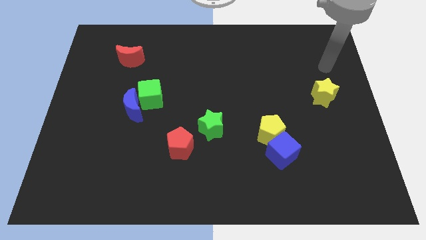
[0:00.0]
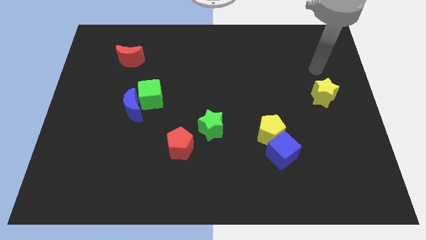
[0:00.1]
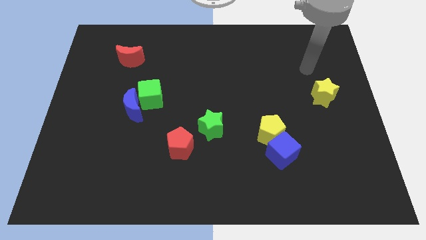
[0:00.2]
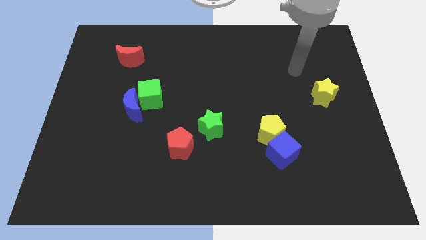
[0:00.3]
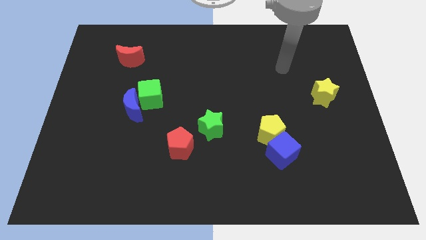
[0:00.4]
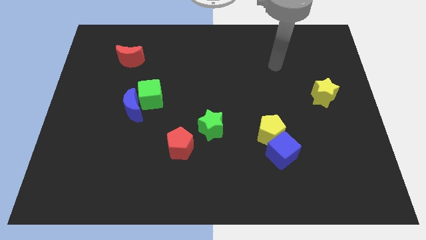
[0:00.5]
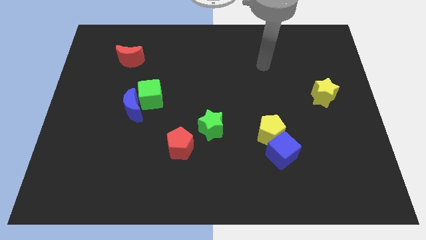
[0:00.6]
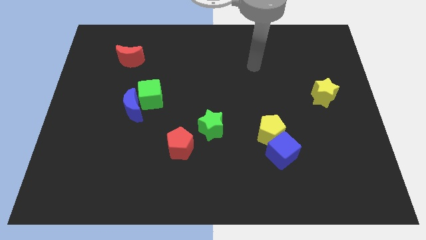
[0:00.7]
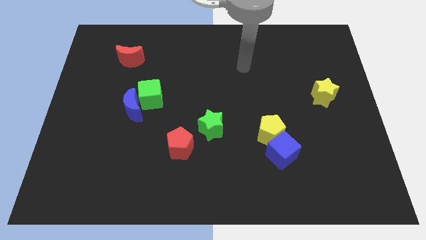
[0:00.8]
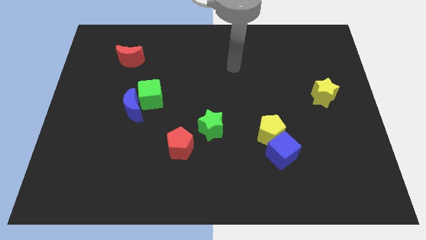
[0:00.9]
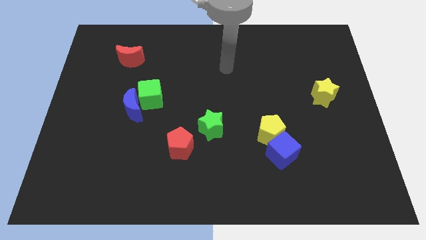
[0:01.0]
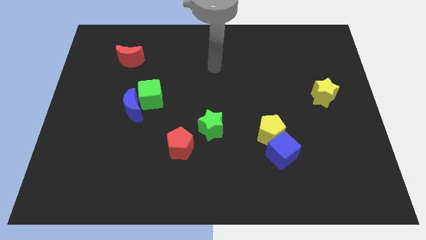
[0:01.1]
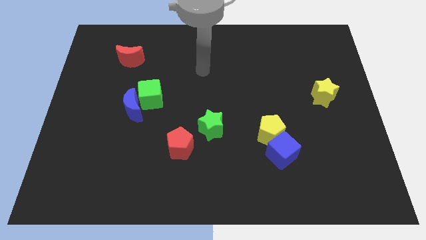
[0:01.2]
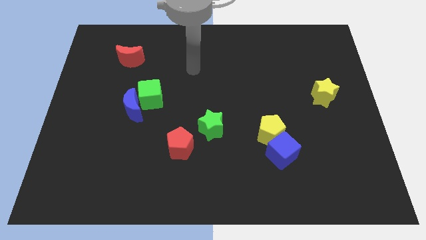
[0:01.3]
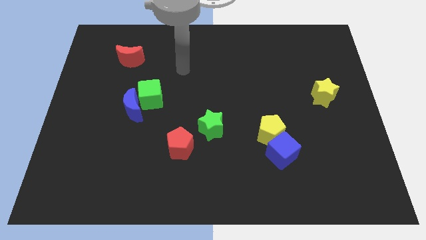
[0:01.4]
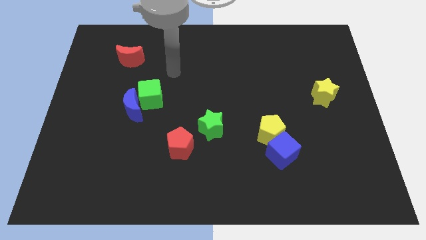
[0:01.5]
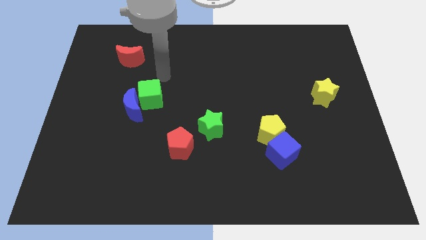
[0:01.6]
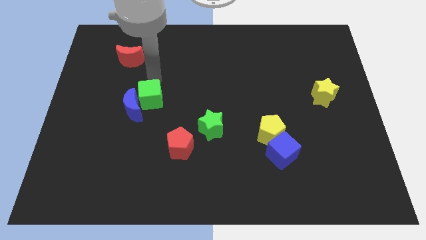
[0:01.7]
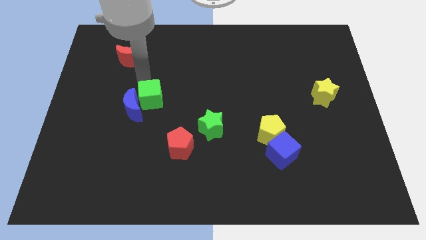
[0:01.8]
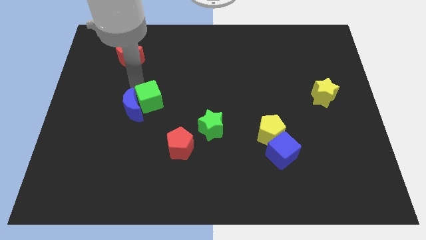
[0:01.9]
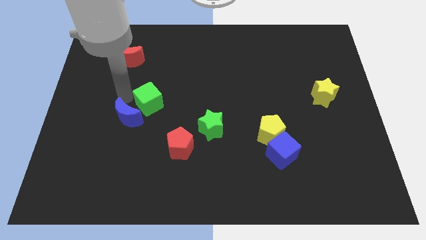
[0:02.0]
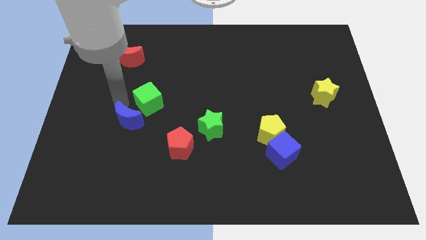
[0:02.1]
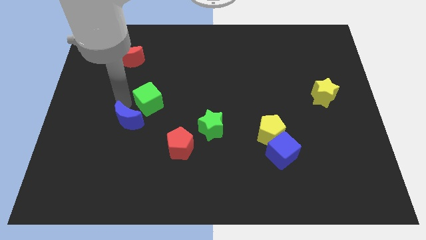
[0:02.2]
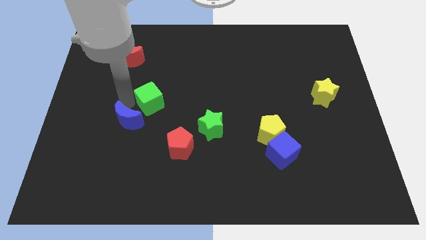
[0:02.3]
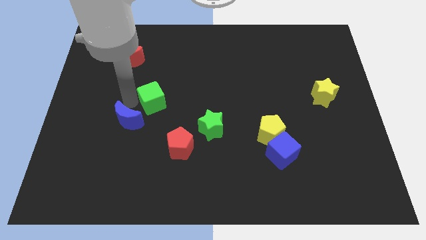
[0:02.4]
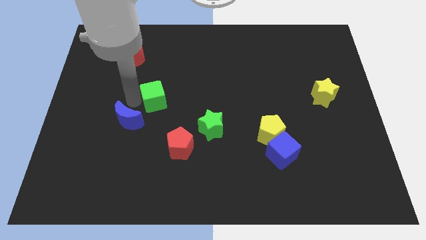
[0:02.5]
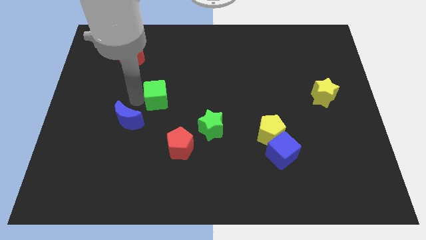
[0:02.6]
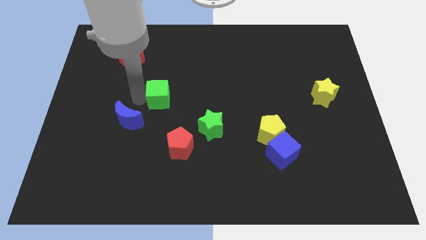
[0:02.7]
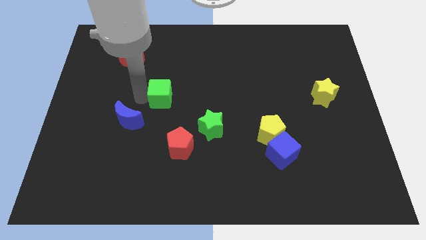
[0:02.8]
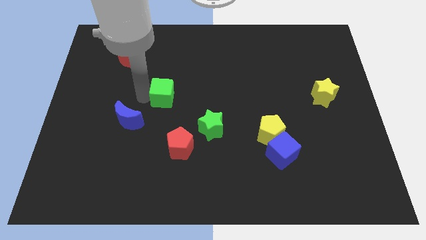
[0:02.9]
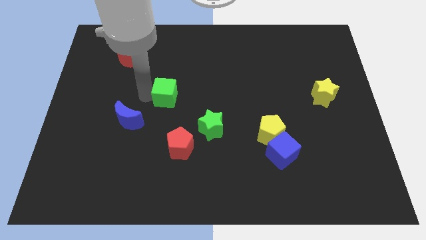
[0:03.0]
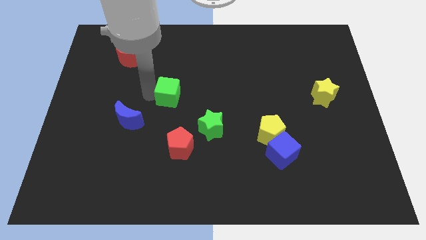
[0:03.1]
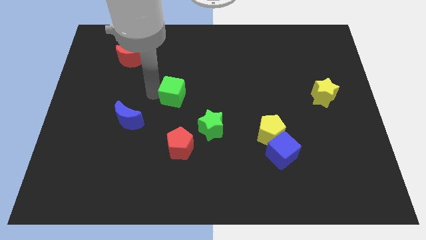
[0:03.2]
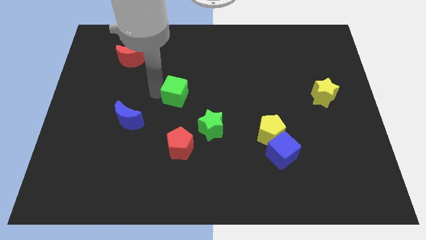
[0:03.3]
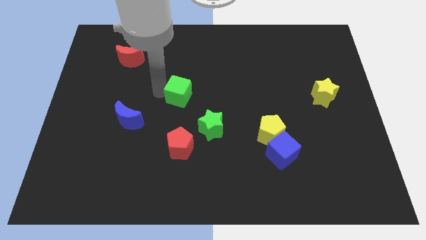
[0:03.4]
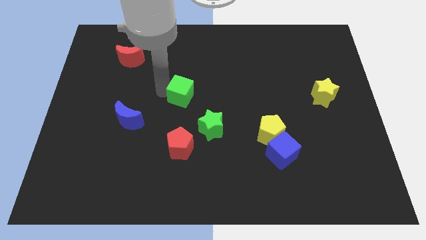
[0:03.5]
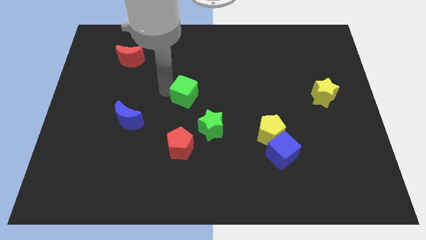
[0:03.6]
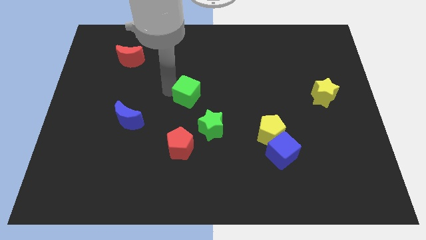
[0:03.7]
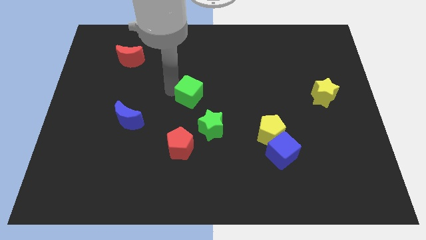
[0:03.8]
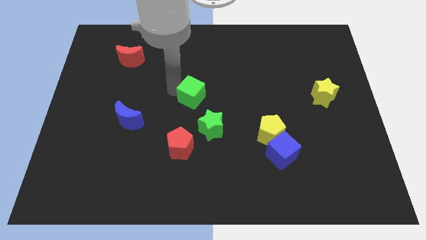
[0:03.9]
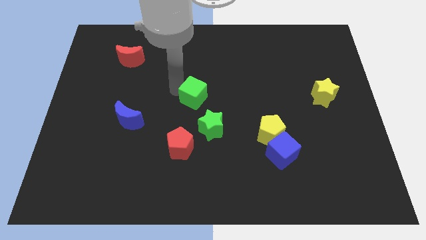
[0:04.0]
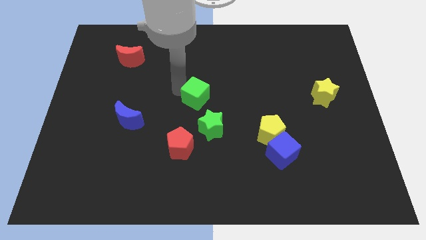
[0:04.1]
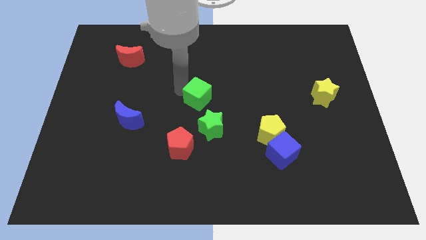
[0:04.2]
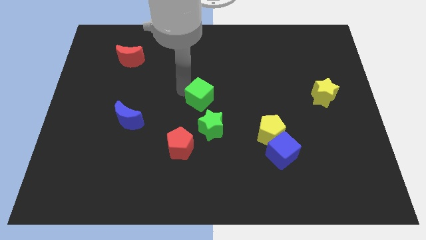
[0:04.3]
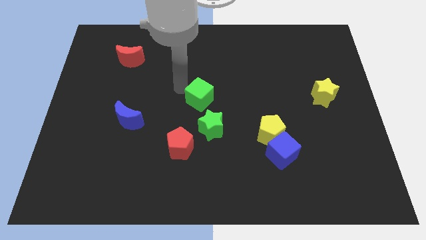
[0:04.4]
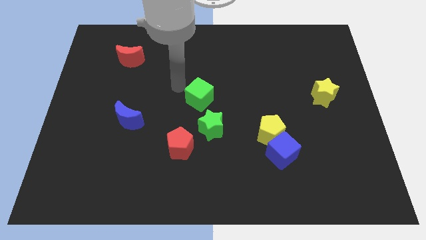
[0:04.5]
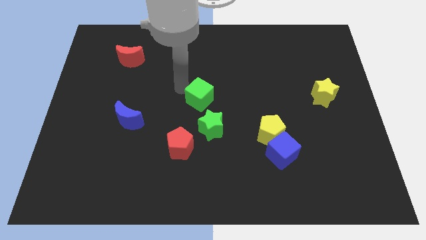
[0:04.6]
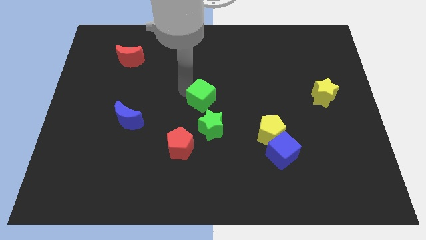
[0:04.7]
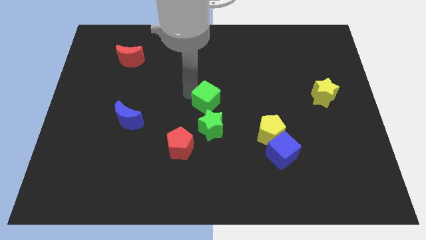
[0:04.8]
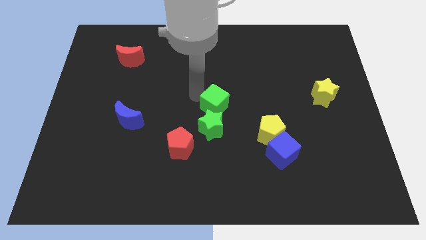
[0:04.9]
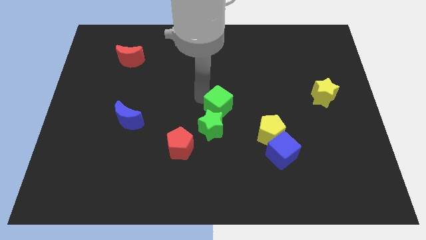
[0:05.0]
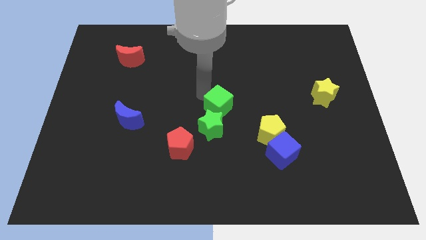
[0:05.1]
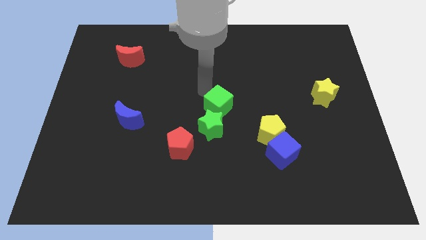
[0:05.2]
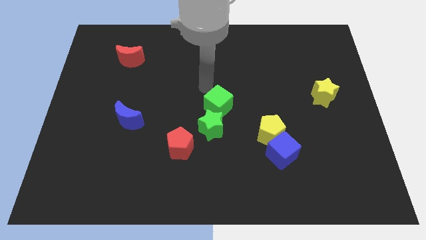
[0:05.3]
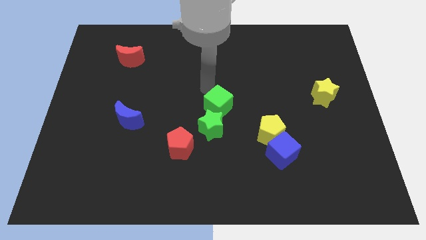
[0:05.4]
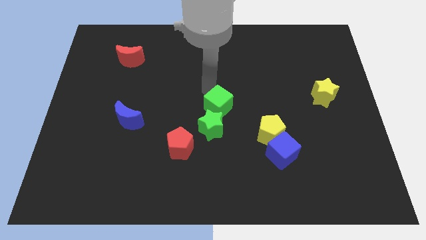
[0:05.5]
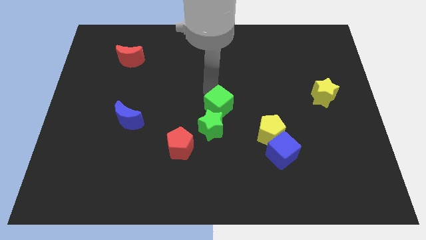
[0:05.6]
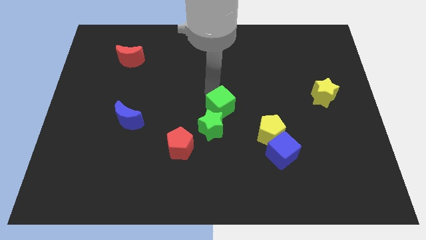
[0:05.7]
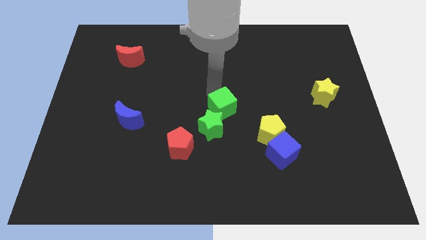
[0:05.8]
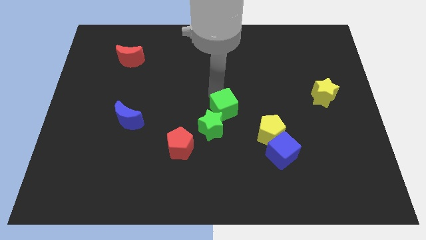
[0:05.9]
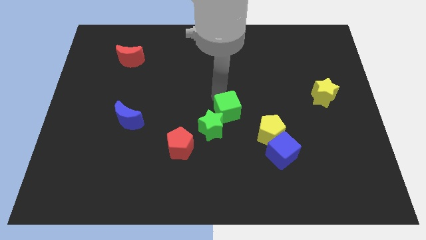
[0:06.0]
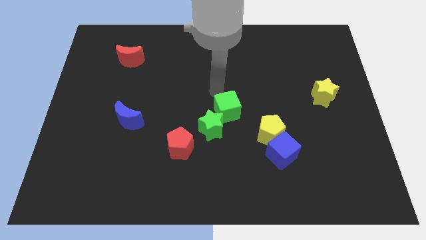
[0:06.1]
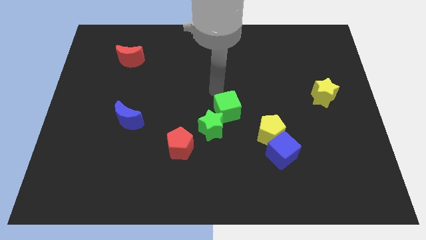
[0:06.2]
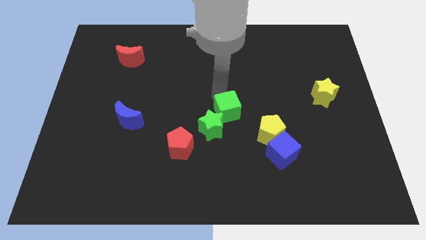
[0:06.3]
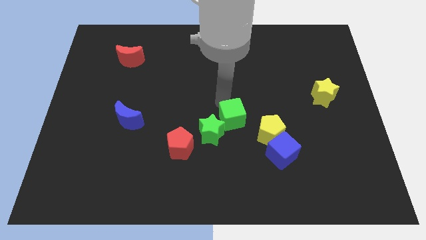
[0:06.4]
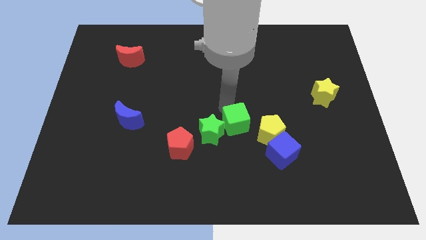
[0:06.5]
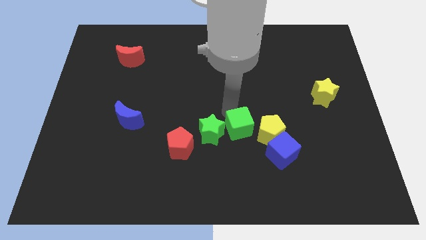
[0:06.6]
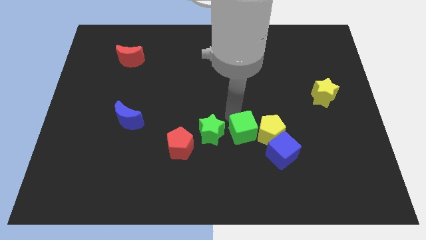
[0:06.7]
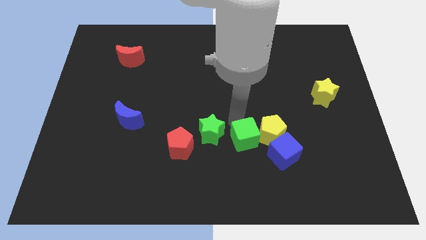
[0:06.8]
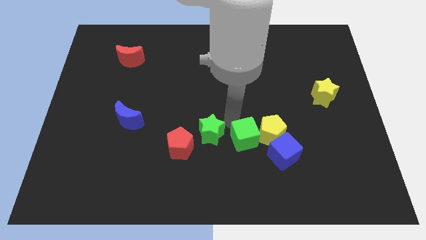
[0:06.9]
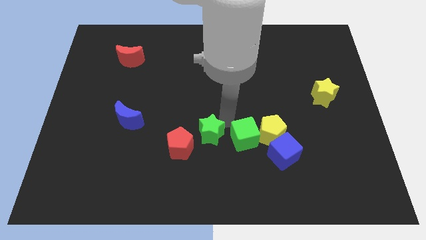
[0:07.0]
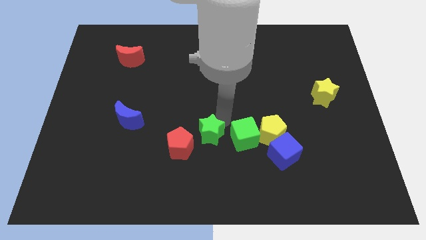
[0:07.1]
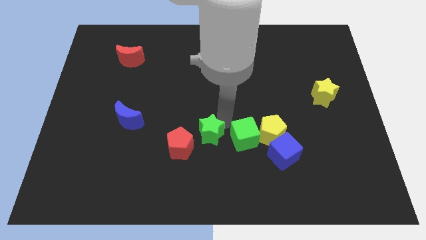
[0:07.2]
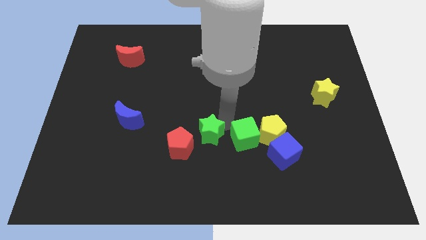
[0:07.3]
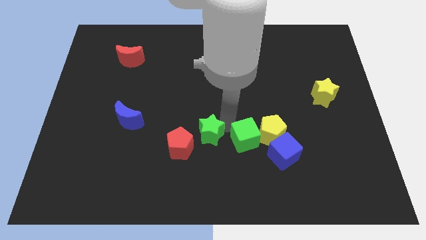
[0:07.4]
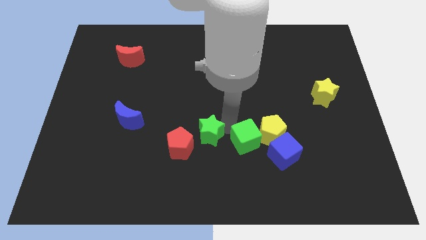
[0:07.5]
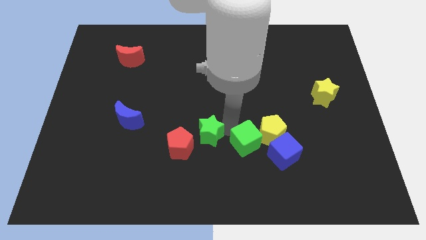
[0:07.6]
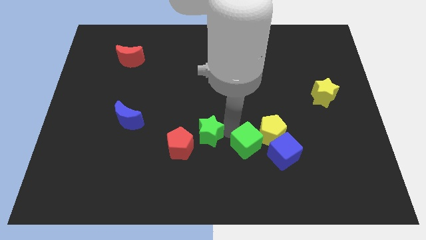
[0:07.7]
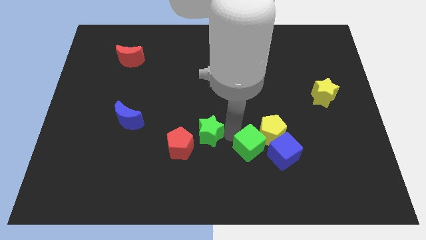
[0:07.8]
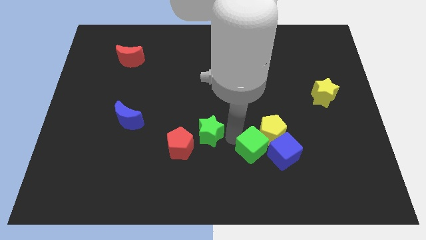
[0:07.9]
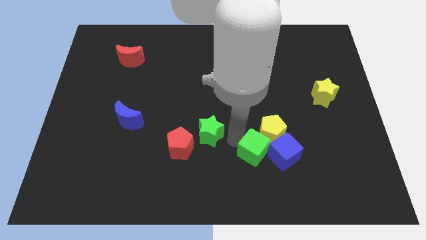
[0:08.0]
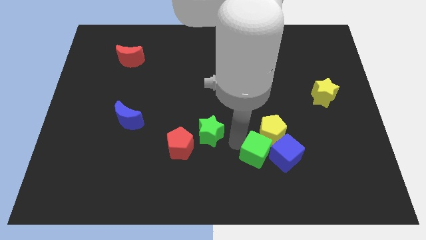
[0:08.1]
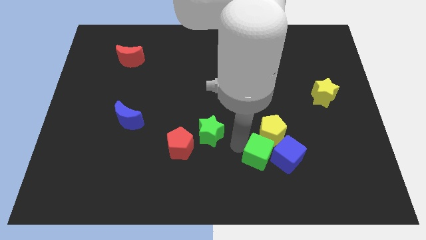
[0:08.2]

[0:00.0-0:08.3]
slide the green cube towards the blue cube
